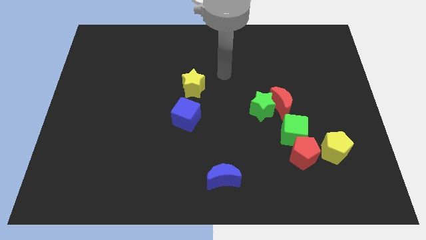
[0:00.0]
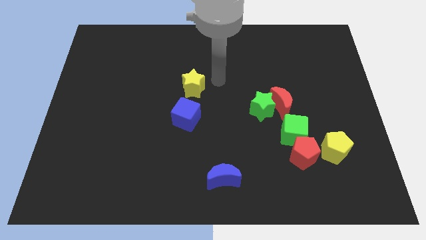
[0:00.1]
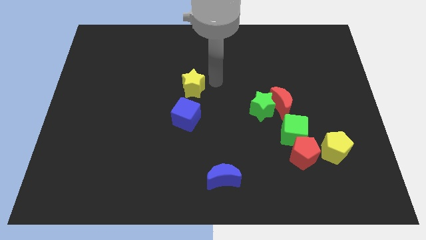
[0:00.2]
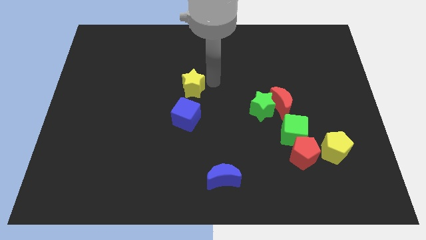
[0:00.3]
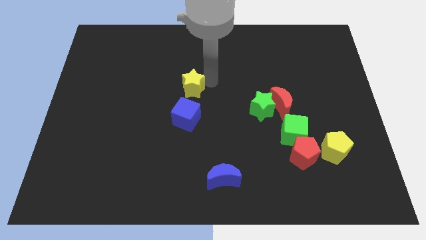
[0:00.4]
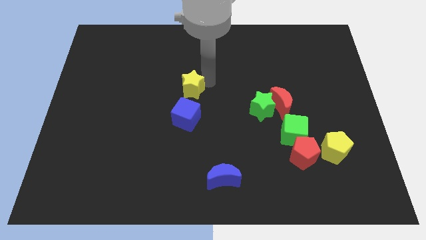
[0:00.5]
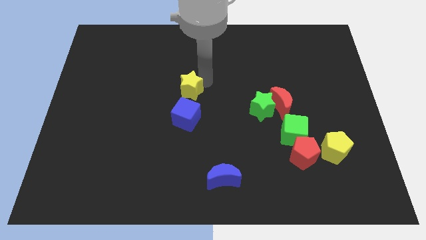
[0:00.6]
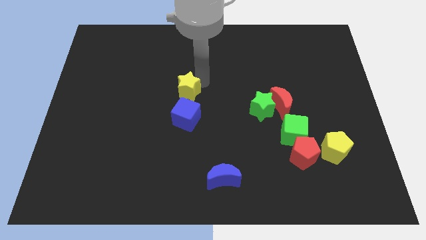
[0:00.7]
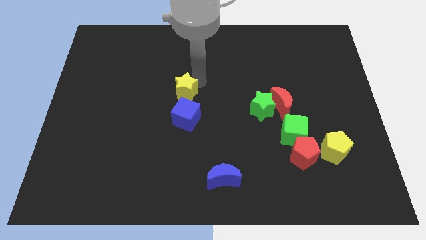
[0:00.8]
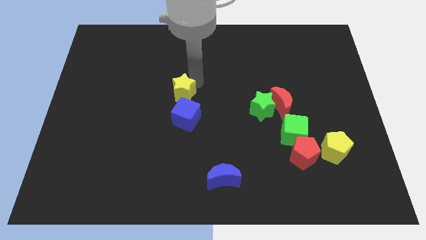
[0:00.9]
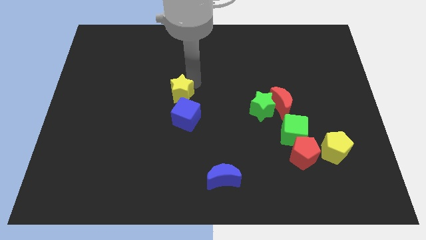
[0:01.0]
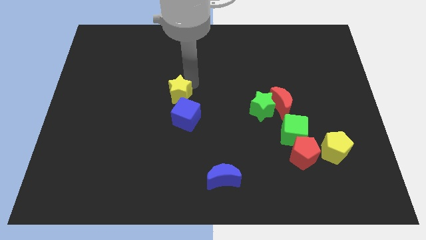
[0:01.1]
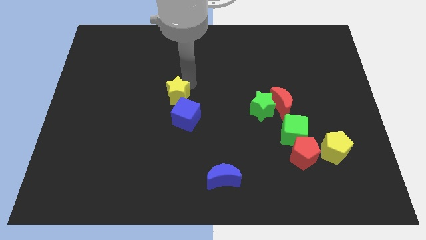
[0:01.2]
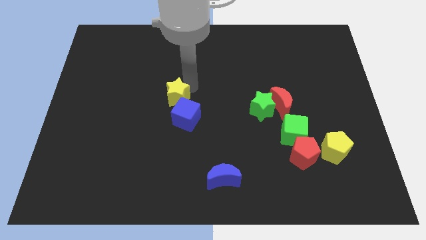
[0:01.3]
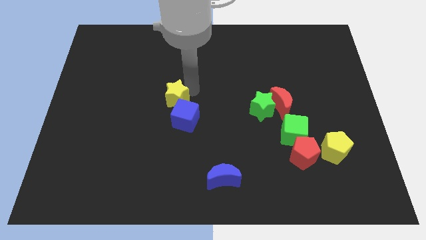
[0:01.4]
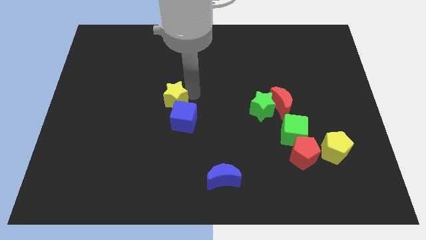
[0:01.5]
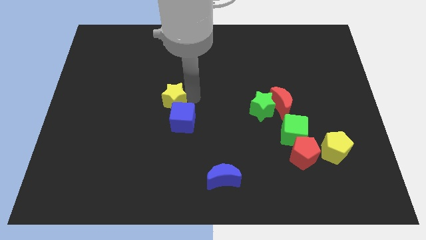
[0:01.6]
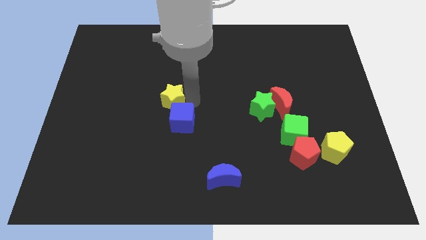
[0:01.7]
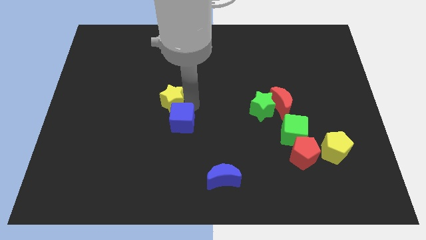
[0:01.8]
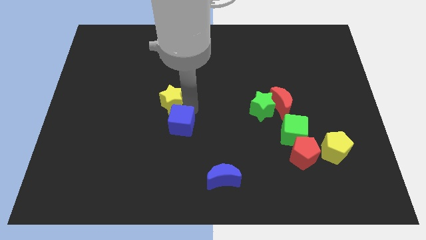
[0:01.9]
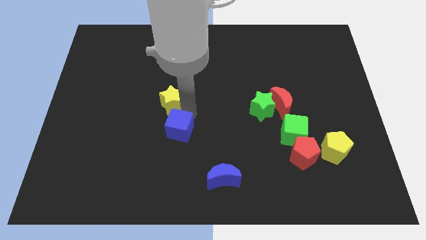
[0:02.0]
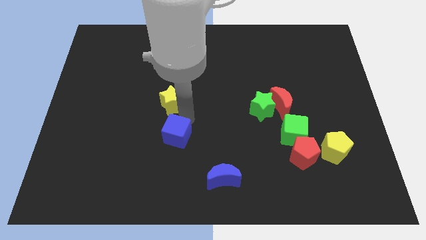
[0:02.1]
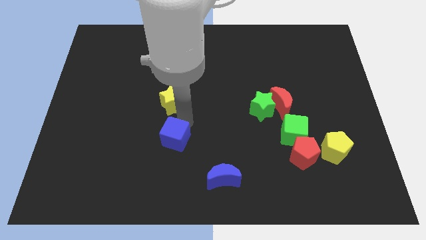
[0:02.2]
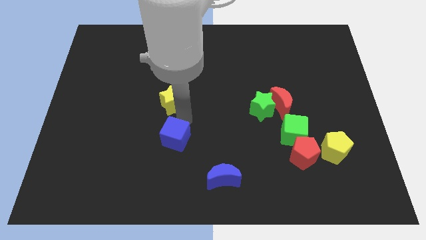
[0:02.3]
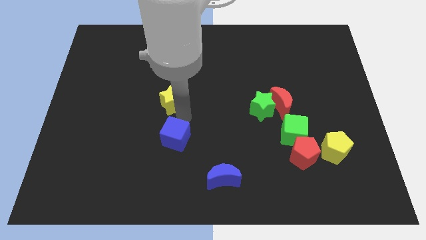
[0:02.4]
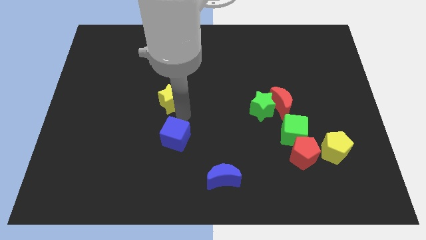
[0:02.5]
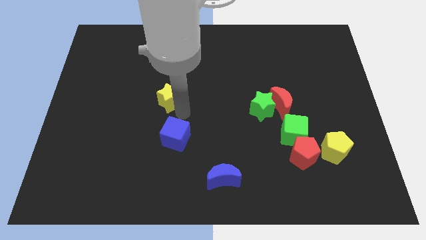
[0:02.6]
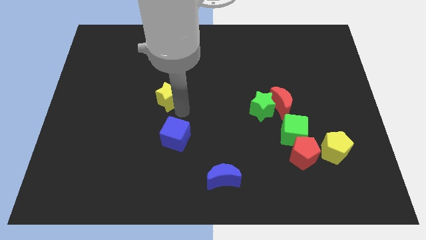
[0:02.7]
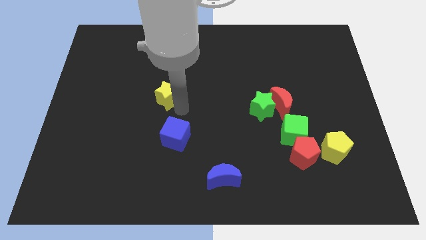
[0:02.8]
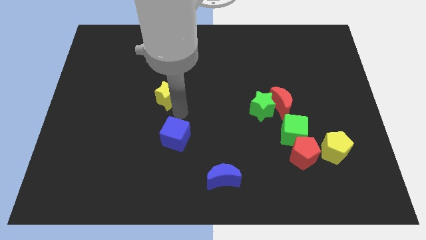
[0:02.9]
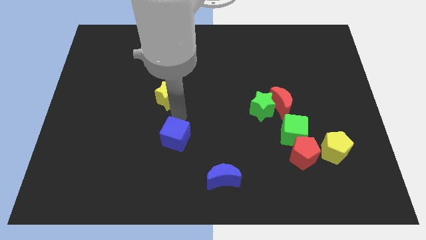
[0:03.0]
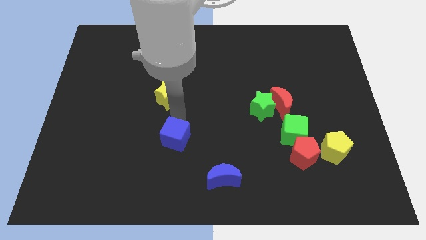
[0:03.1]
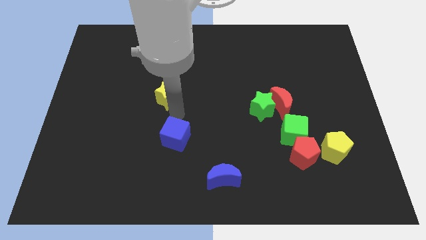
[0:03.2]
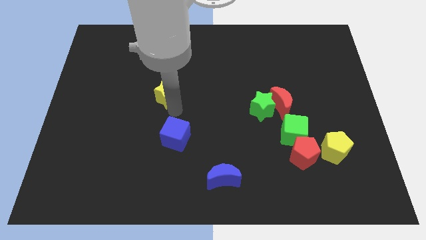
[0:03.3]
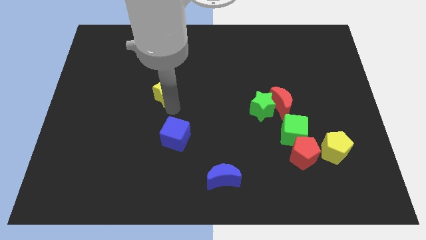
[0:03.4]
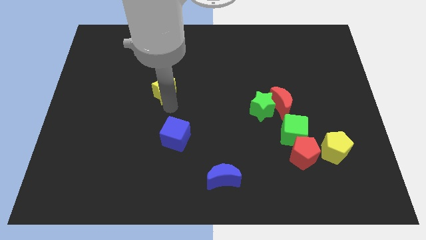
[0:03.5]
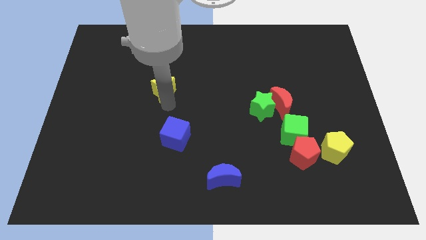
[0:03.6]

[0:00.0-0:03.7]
slightly slide the yellow star left

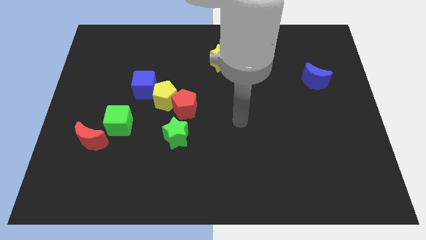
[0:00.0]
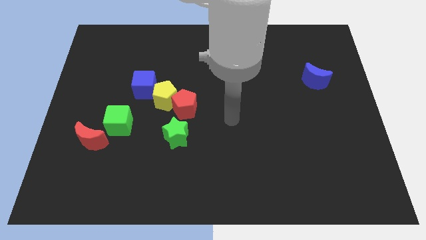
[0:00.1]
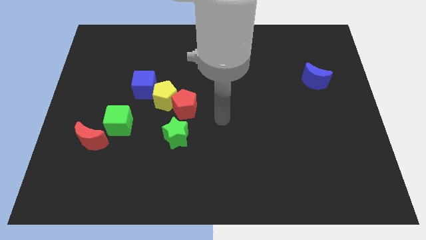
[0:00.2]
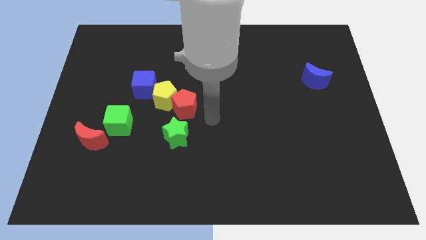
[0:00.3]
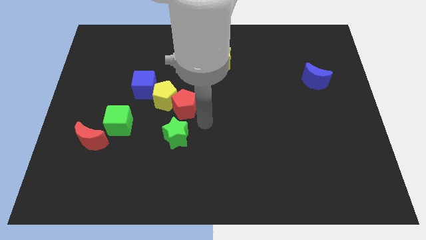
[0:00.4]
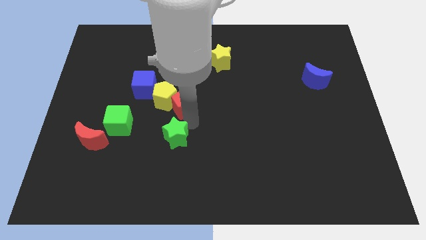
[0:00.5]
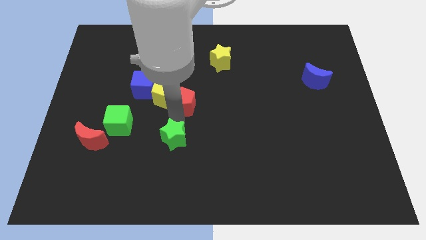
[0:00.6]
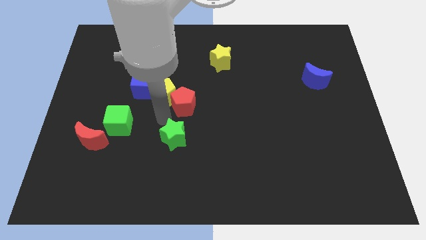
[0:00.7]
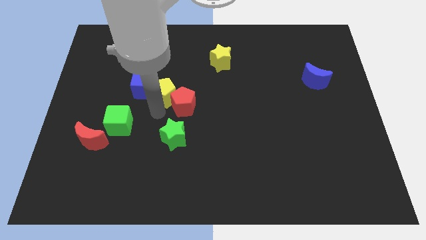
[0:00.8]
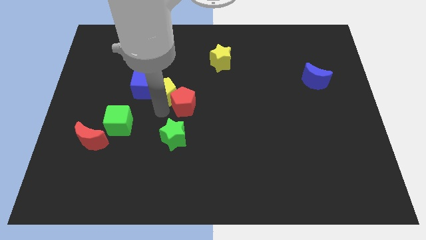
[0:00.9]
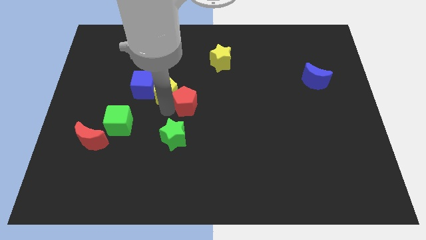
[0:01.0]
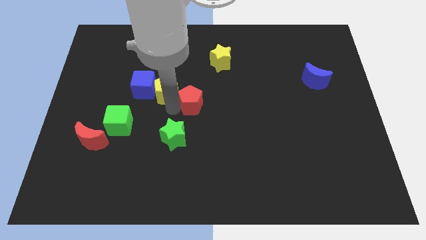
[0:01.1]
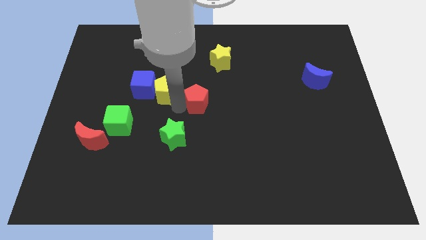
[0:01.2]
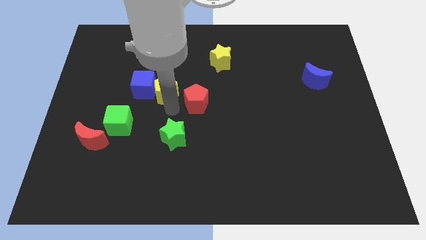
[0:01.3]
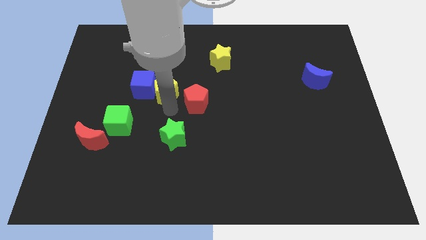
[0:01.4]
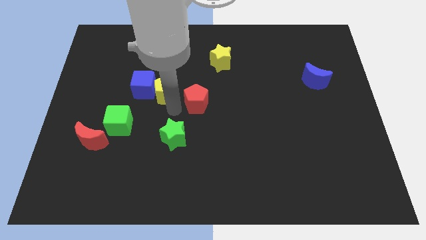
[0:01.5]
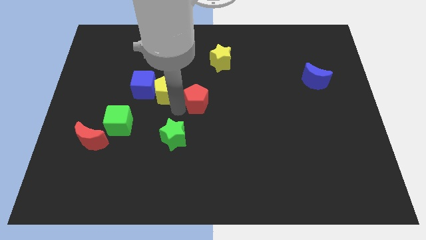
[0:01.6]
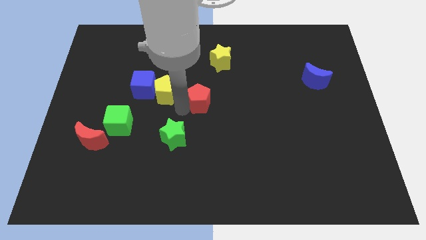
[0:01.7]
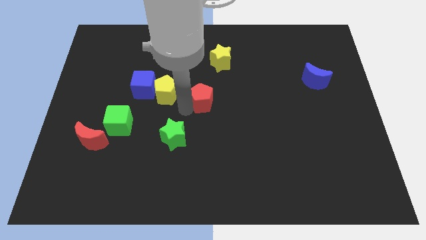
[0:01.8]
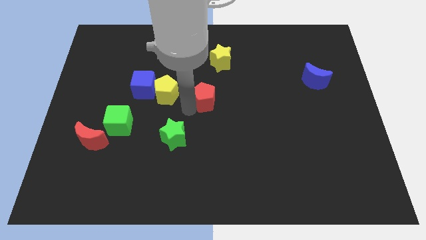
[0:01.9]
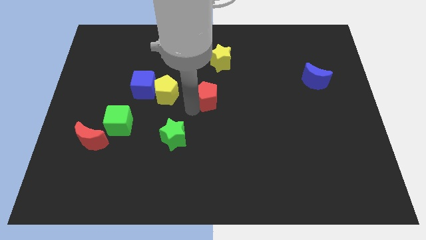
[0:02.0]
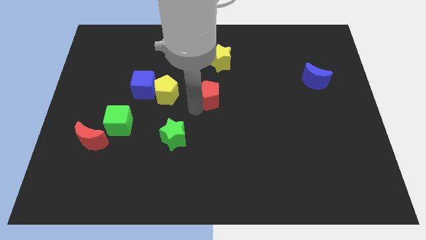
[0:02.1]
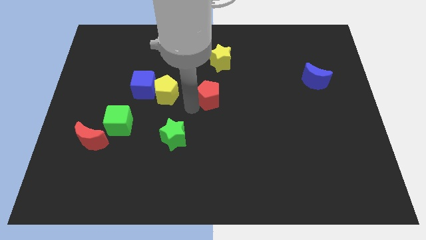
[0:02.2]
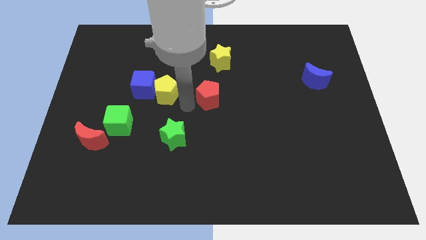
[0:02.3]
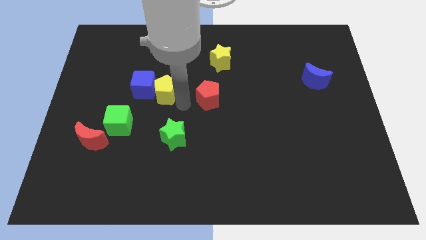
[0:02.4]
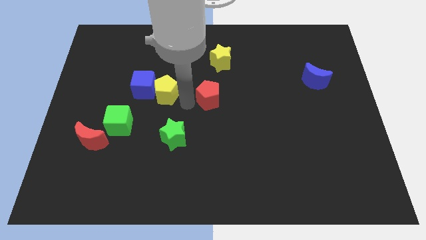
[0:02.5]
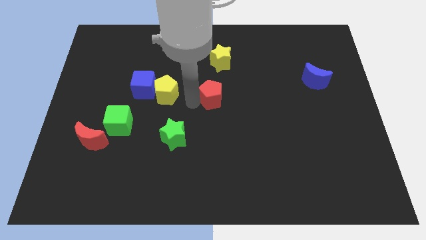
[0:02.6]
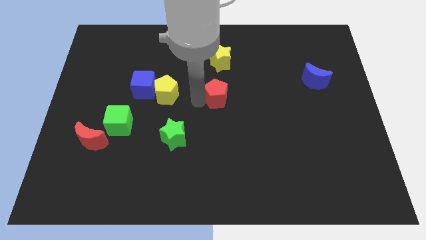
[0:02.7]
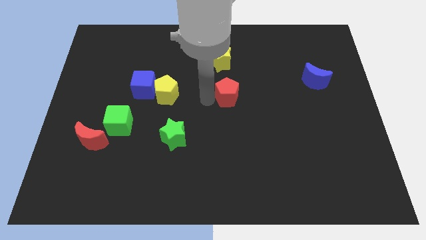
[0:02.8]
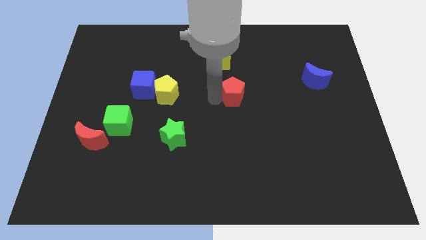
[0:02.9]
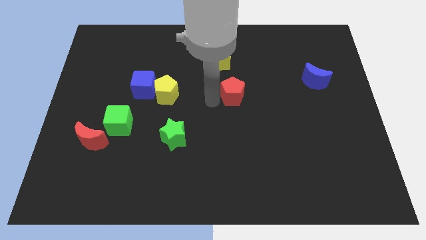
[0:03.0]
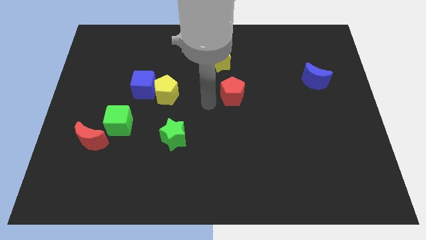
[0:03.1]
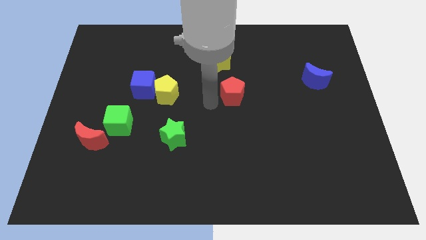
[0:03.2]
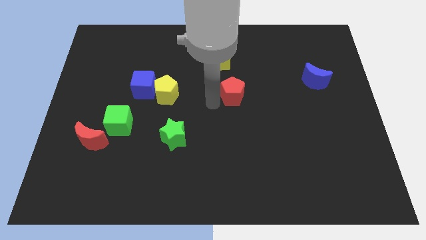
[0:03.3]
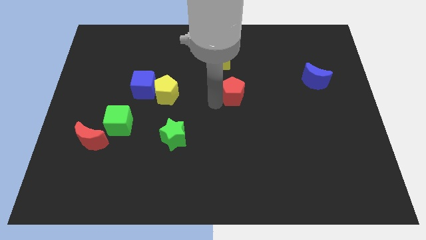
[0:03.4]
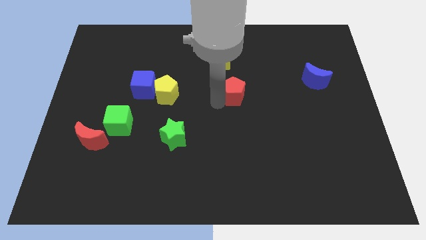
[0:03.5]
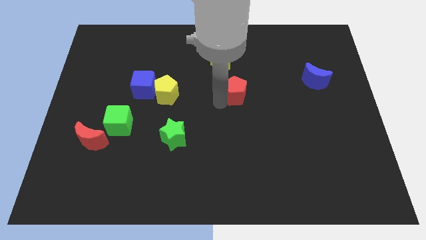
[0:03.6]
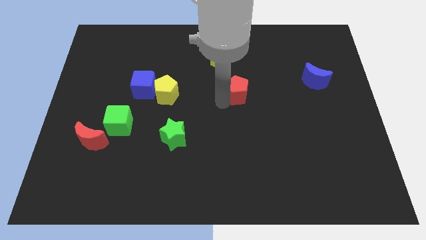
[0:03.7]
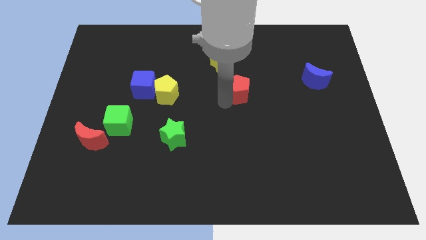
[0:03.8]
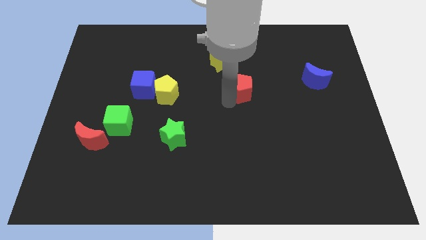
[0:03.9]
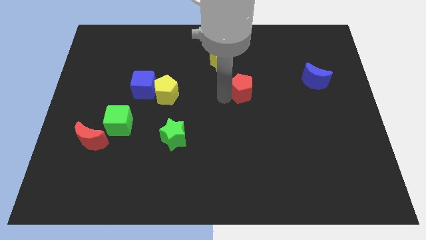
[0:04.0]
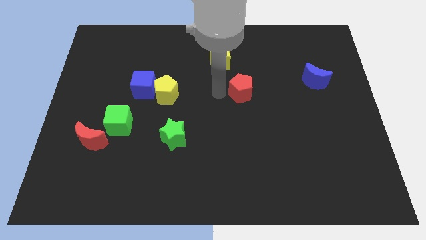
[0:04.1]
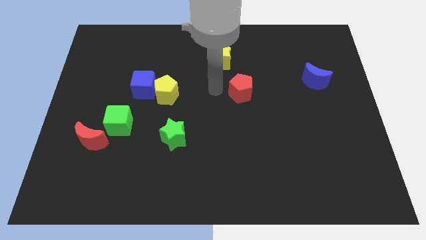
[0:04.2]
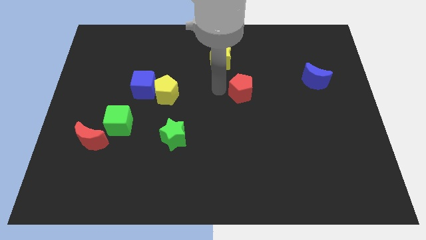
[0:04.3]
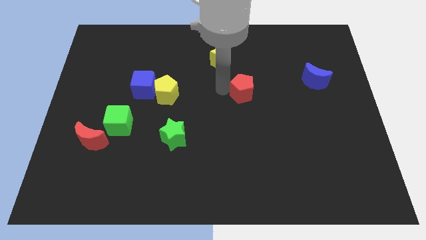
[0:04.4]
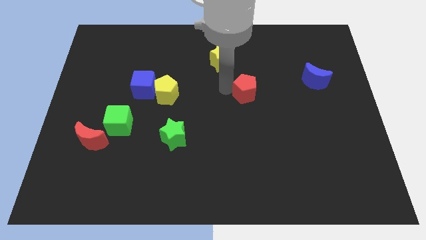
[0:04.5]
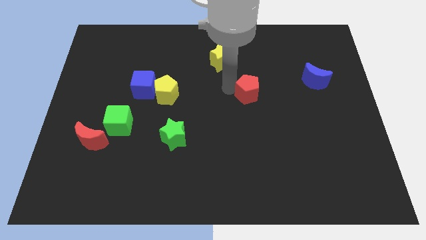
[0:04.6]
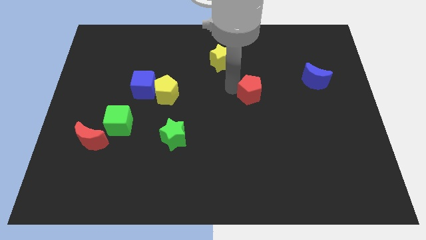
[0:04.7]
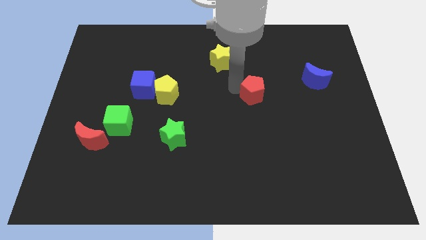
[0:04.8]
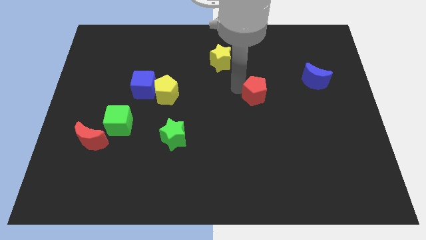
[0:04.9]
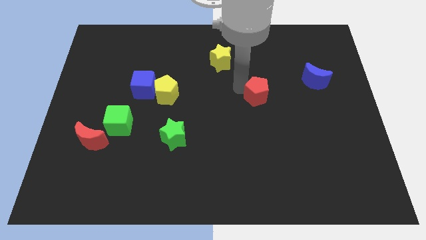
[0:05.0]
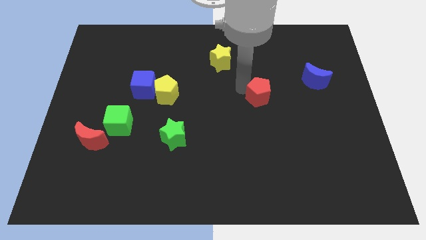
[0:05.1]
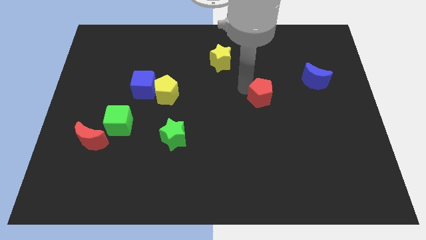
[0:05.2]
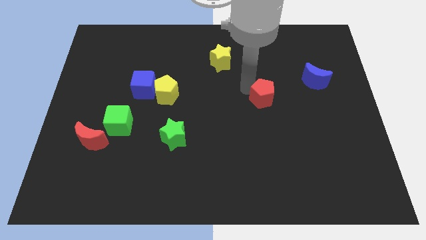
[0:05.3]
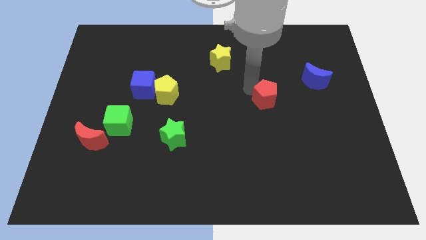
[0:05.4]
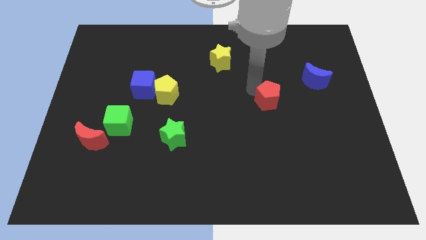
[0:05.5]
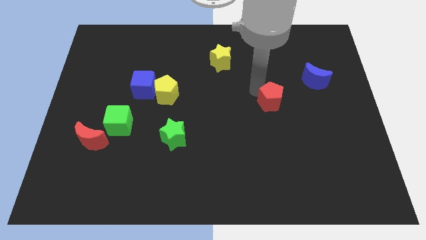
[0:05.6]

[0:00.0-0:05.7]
move the red pentagon to the right
